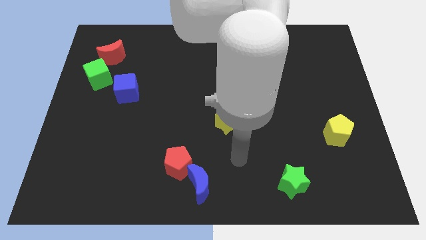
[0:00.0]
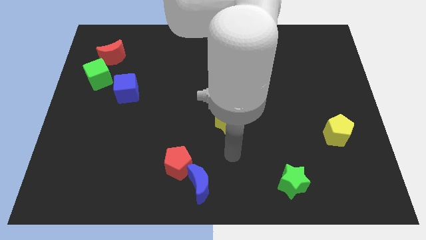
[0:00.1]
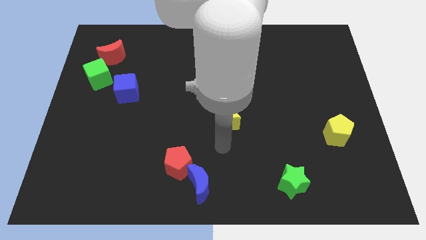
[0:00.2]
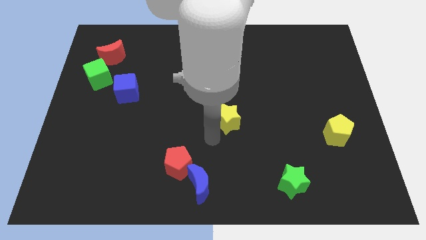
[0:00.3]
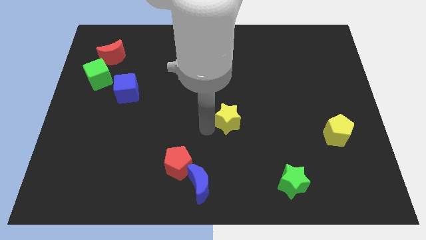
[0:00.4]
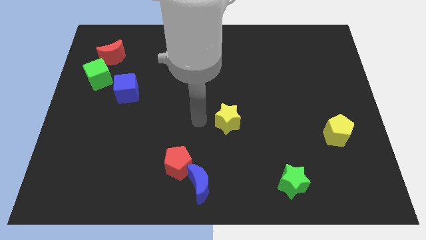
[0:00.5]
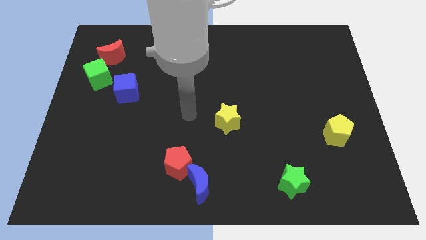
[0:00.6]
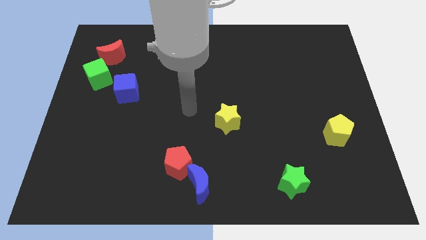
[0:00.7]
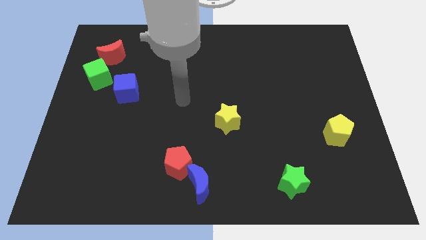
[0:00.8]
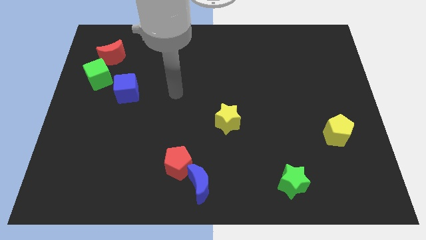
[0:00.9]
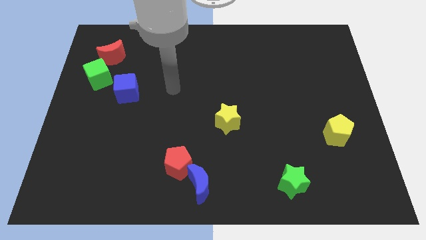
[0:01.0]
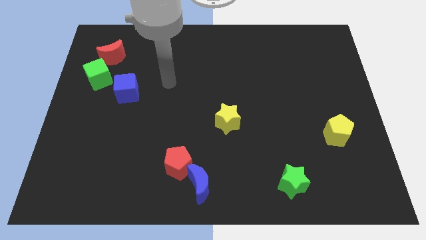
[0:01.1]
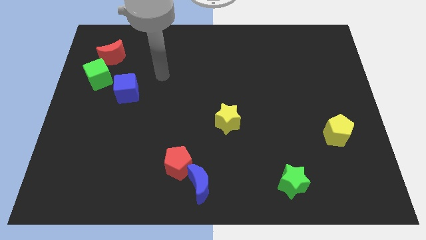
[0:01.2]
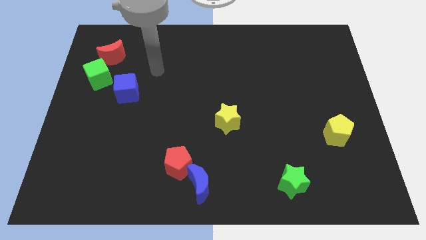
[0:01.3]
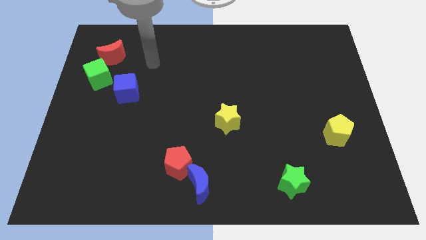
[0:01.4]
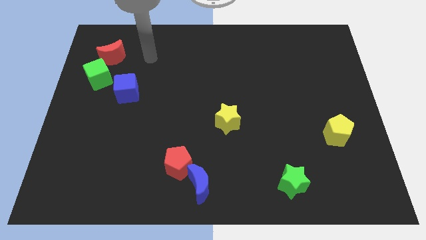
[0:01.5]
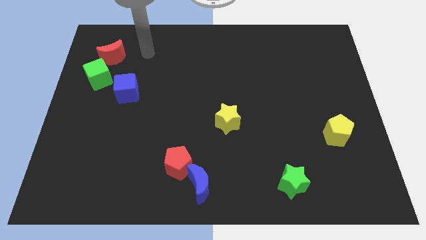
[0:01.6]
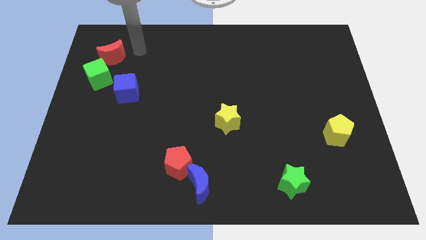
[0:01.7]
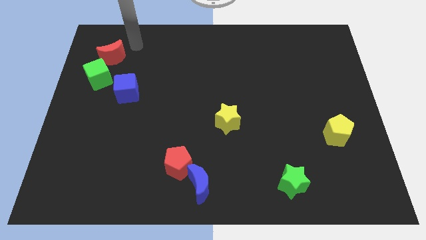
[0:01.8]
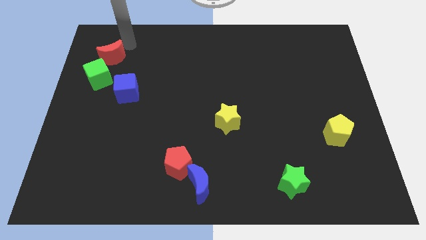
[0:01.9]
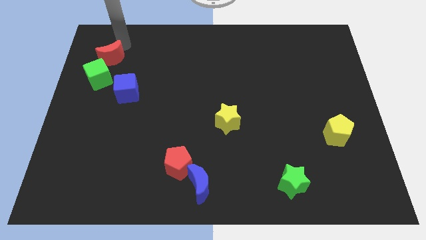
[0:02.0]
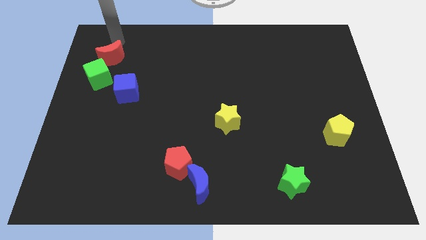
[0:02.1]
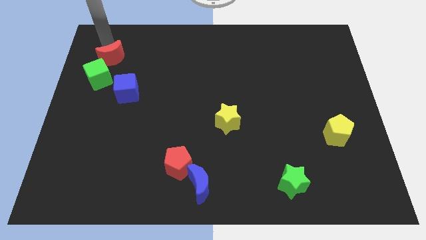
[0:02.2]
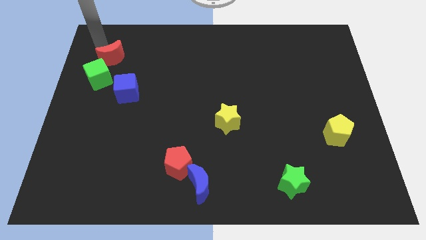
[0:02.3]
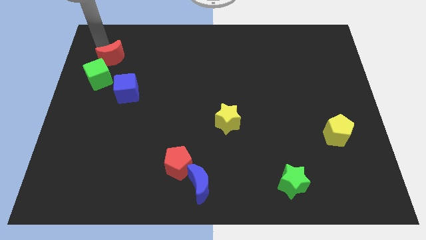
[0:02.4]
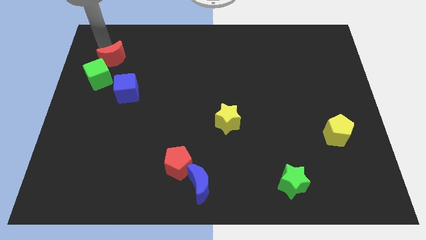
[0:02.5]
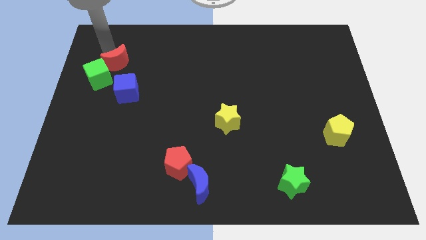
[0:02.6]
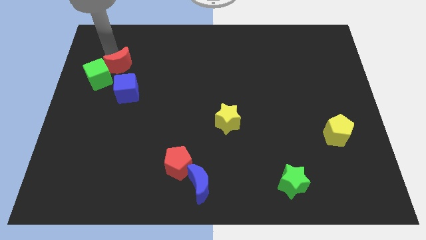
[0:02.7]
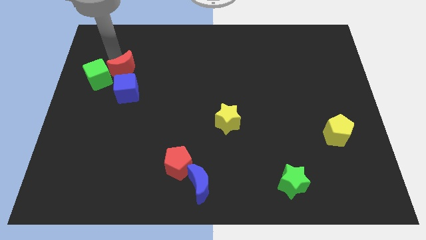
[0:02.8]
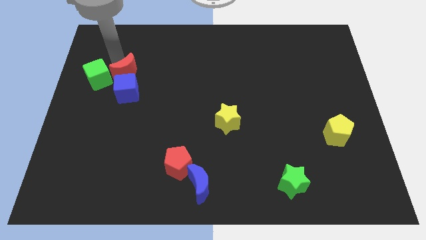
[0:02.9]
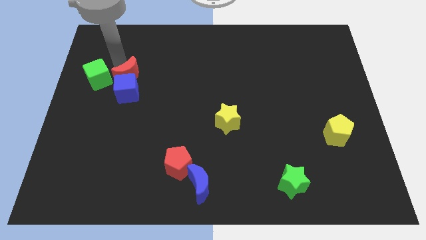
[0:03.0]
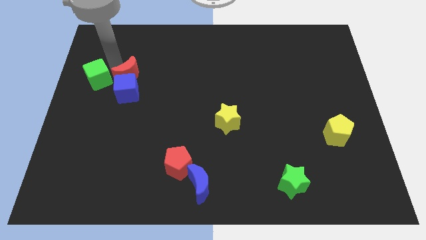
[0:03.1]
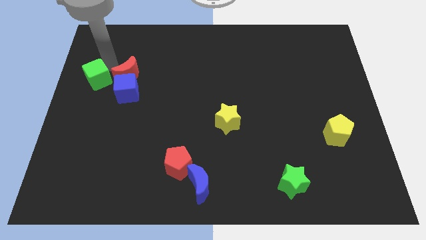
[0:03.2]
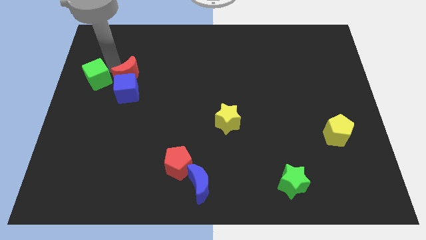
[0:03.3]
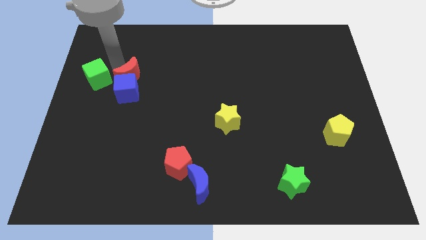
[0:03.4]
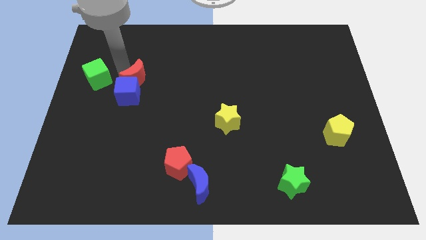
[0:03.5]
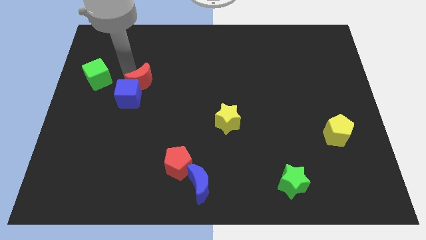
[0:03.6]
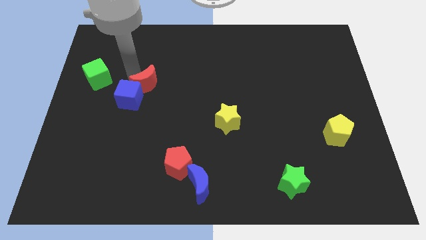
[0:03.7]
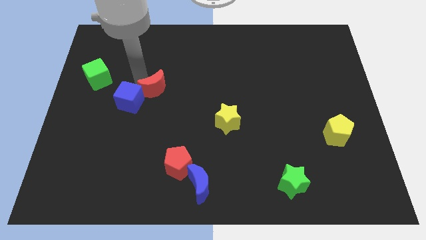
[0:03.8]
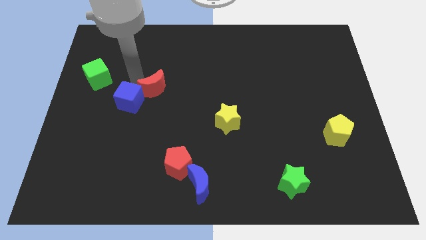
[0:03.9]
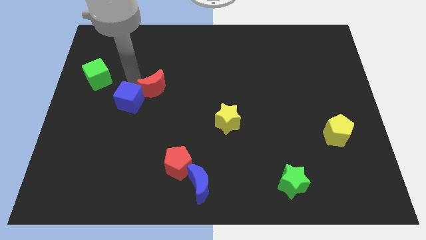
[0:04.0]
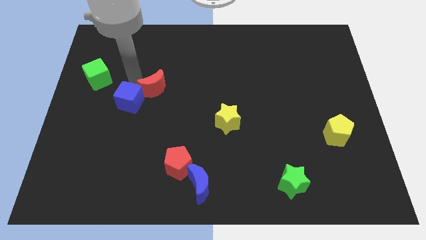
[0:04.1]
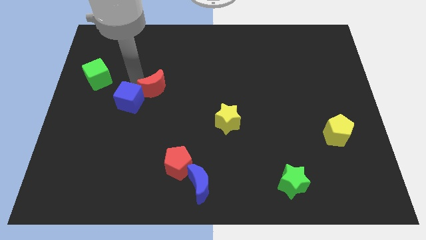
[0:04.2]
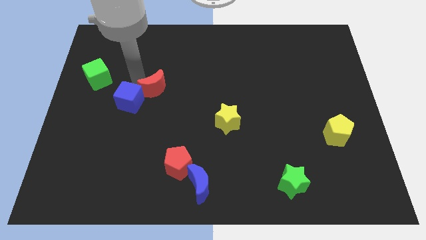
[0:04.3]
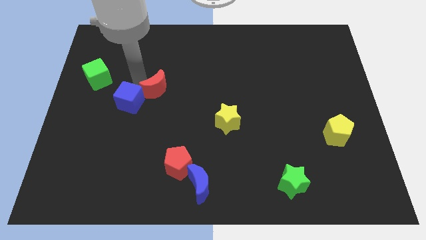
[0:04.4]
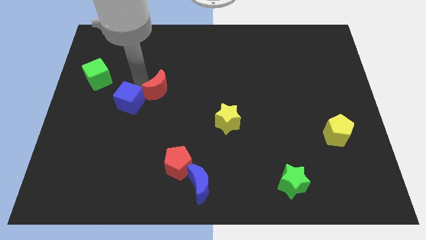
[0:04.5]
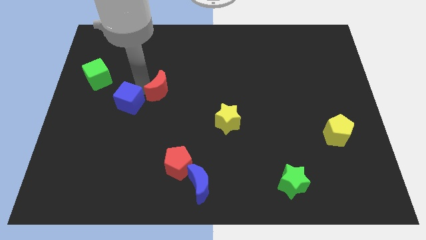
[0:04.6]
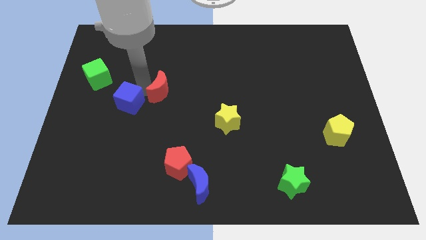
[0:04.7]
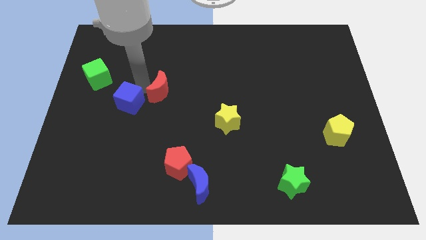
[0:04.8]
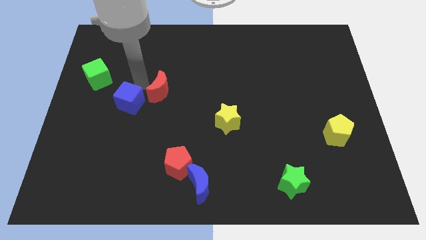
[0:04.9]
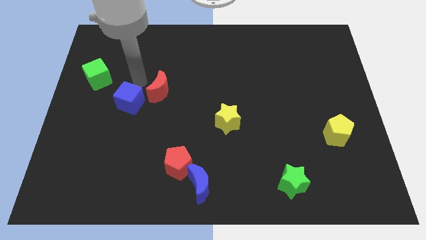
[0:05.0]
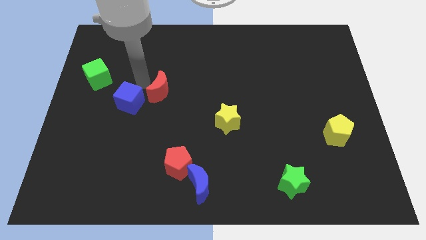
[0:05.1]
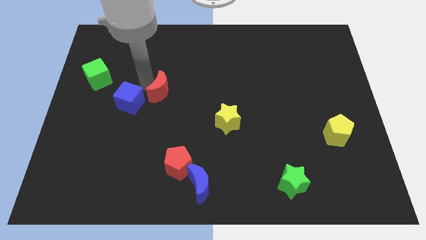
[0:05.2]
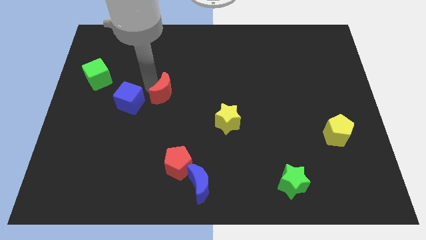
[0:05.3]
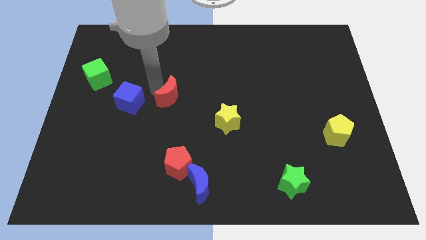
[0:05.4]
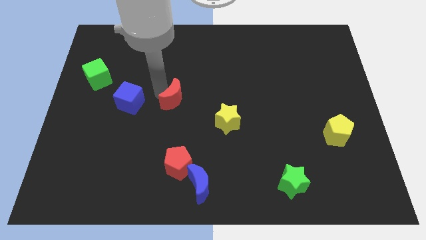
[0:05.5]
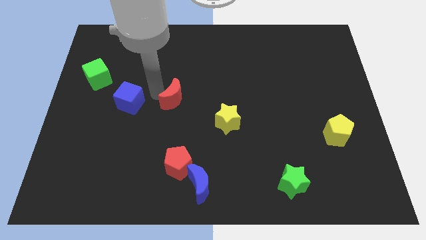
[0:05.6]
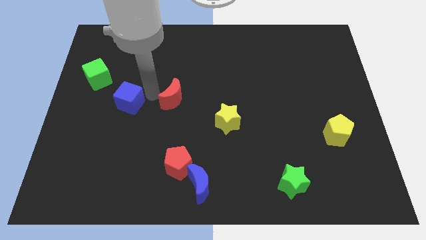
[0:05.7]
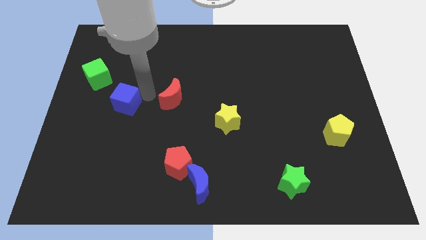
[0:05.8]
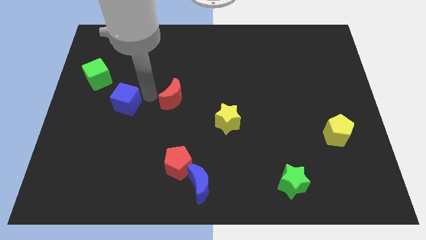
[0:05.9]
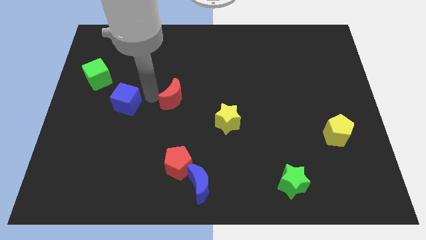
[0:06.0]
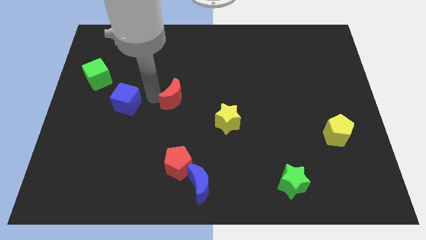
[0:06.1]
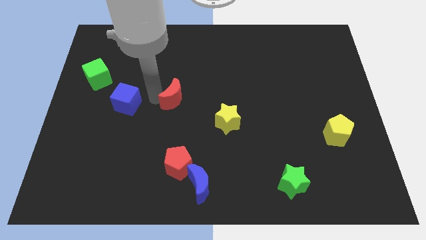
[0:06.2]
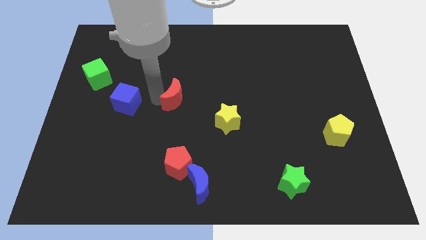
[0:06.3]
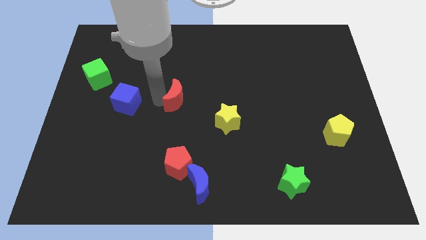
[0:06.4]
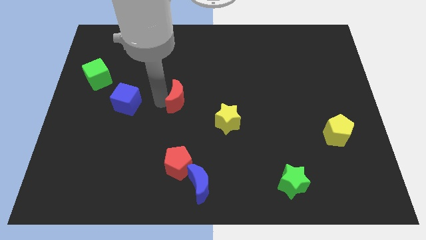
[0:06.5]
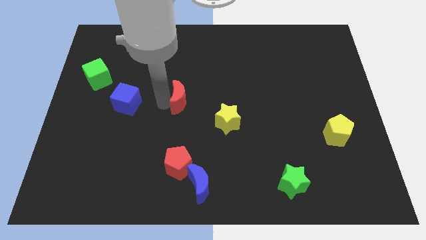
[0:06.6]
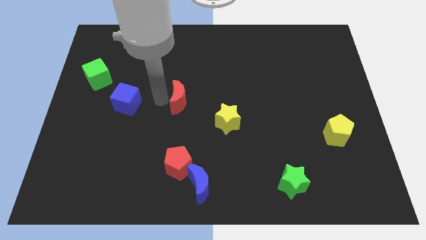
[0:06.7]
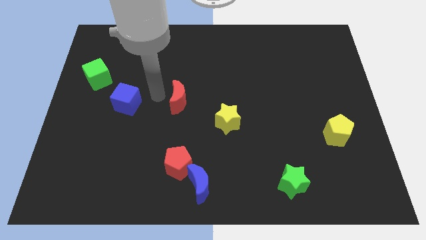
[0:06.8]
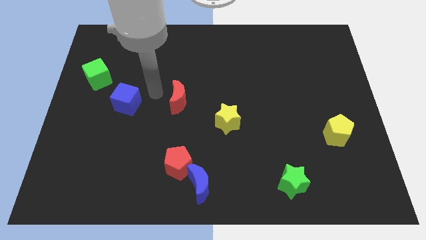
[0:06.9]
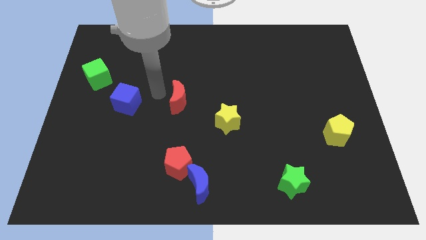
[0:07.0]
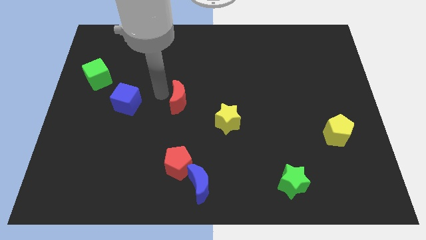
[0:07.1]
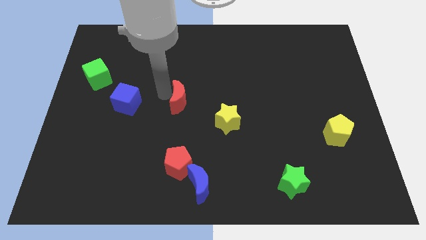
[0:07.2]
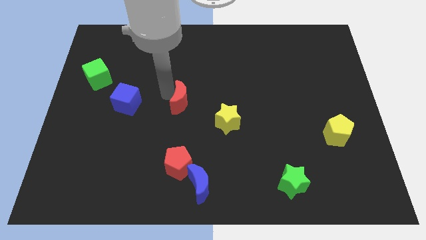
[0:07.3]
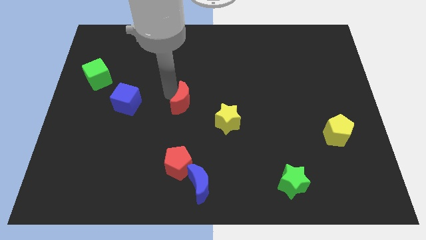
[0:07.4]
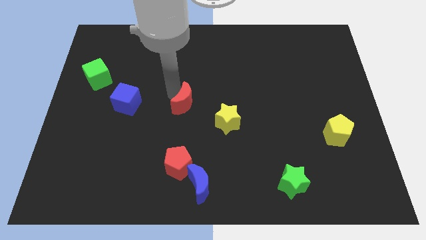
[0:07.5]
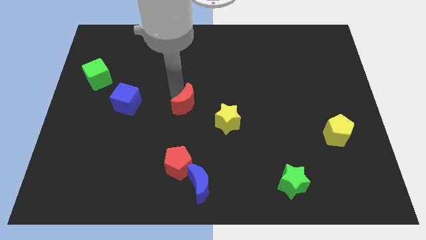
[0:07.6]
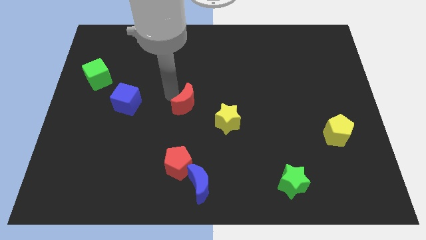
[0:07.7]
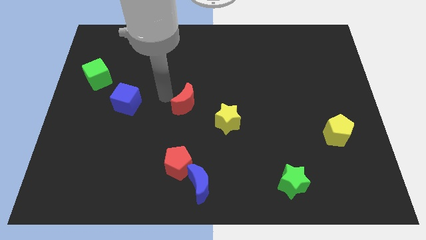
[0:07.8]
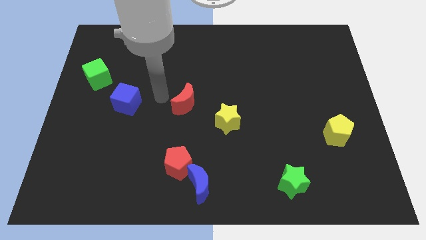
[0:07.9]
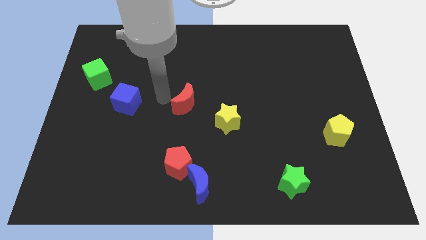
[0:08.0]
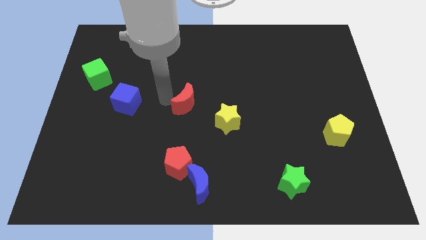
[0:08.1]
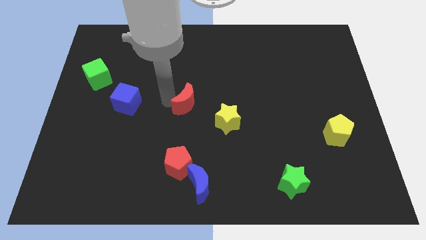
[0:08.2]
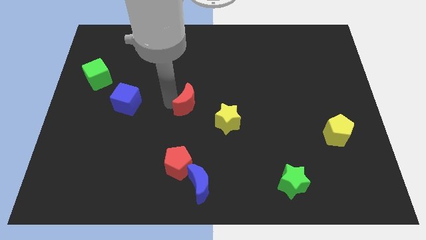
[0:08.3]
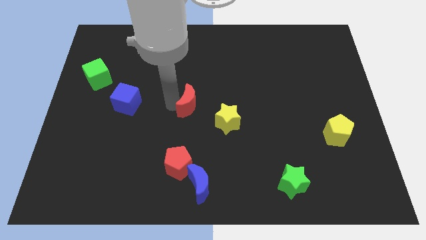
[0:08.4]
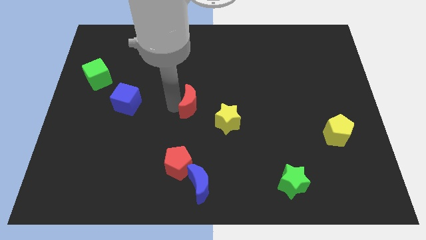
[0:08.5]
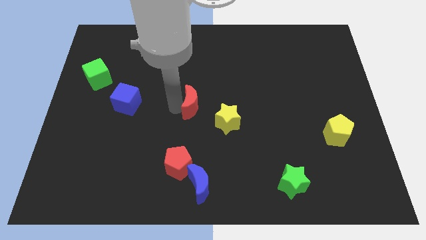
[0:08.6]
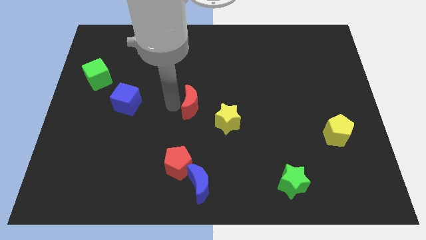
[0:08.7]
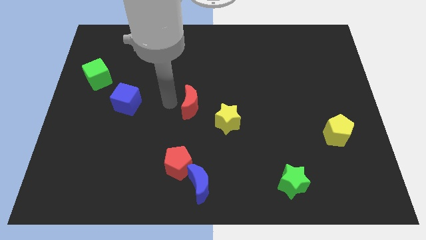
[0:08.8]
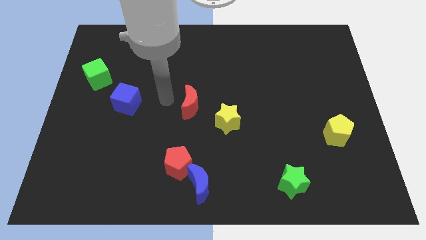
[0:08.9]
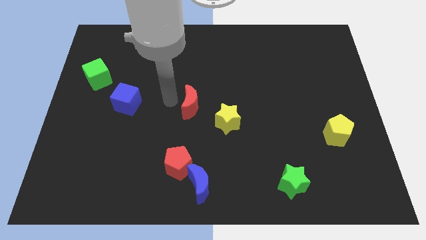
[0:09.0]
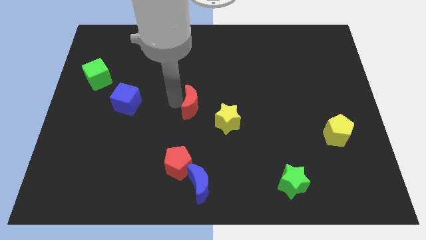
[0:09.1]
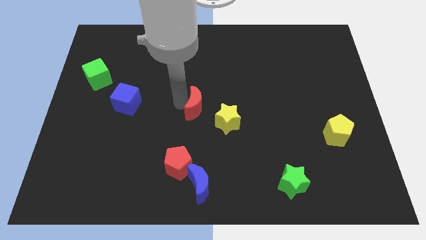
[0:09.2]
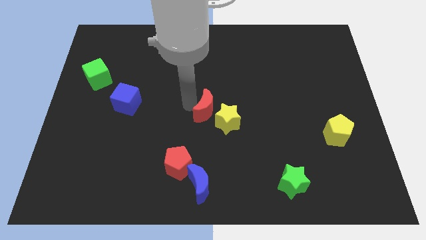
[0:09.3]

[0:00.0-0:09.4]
put the red moon close to the yellow star
